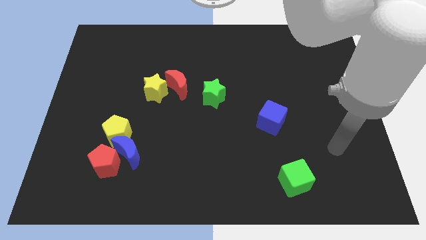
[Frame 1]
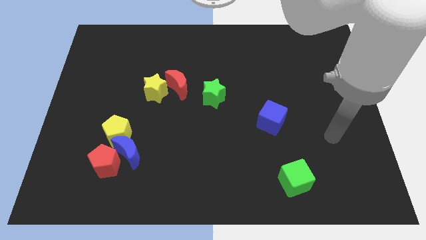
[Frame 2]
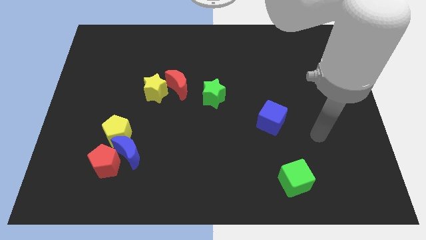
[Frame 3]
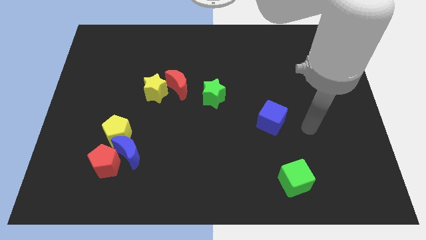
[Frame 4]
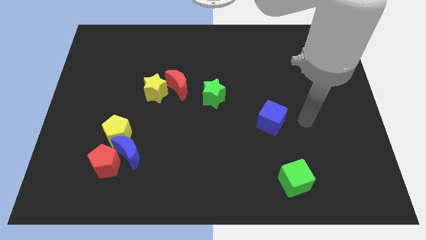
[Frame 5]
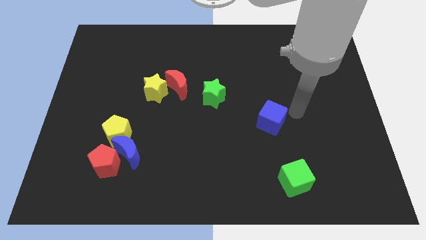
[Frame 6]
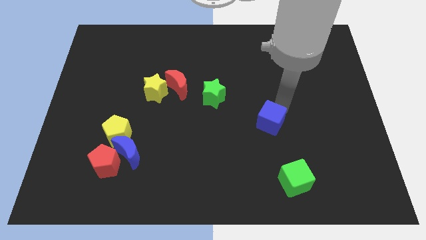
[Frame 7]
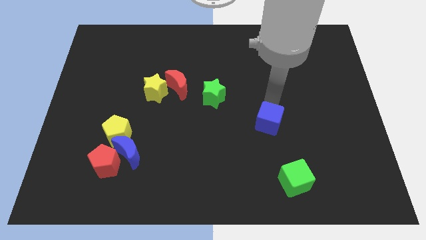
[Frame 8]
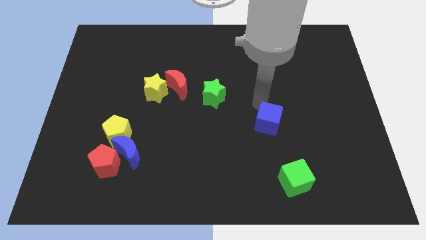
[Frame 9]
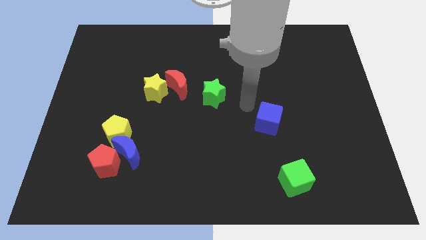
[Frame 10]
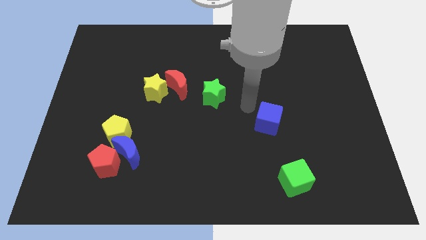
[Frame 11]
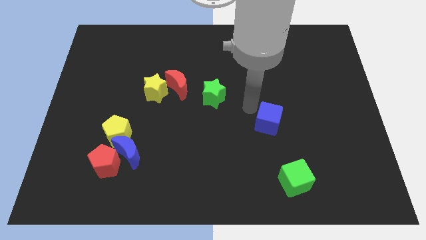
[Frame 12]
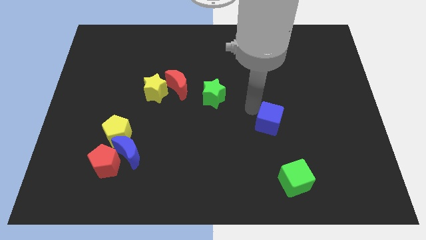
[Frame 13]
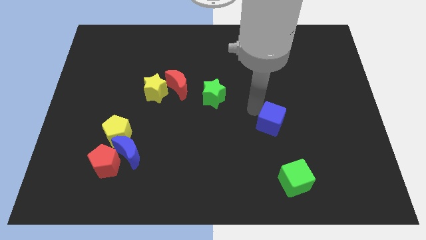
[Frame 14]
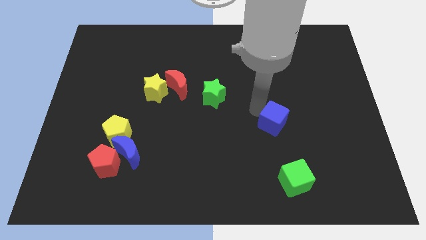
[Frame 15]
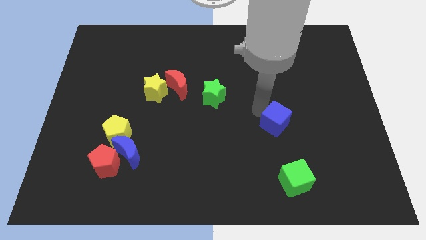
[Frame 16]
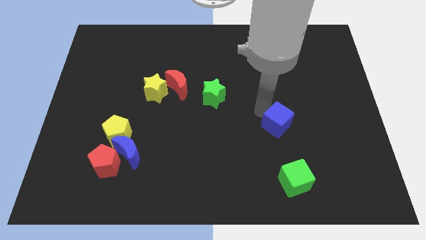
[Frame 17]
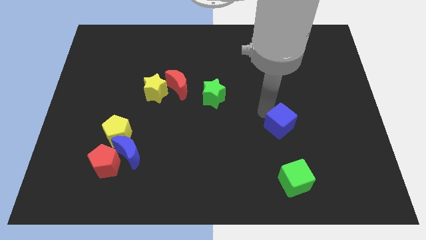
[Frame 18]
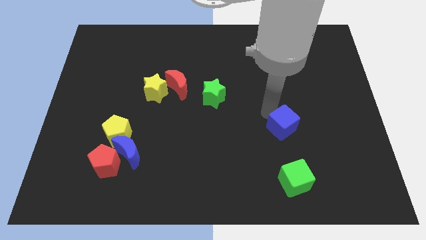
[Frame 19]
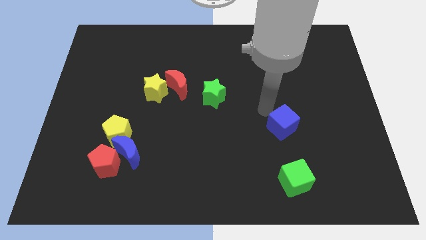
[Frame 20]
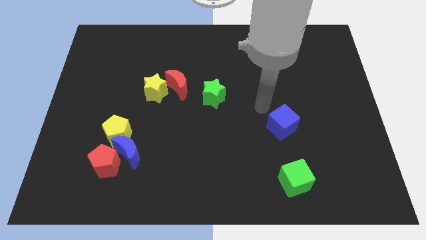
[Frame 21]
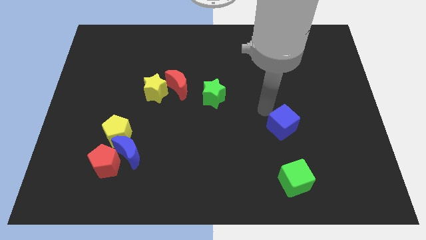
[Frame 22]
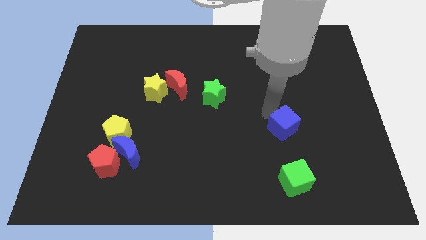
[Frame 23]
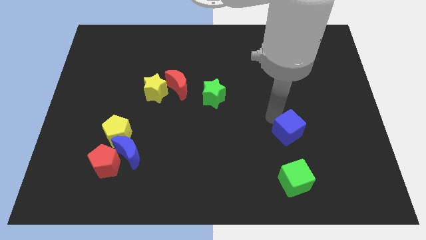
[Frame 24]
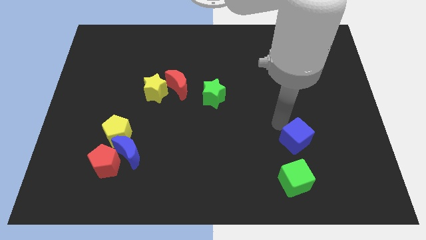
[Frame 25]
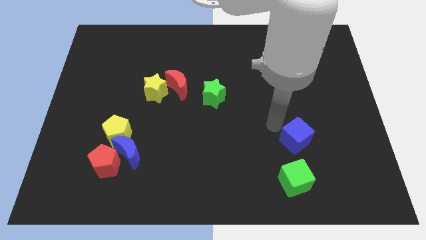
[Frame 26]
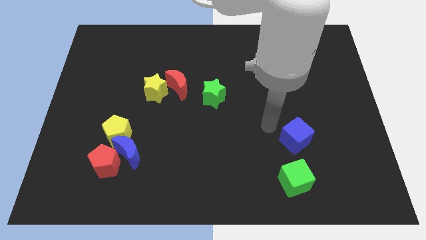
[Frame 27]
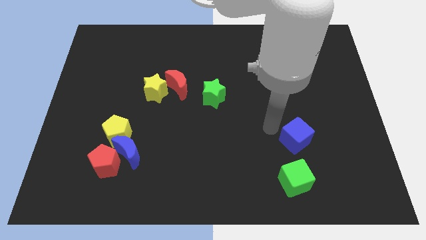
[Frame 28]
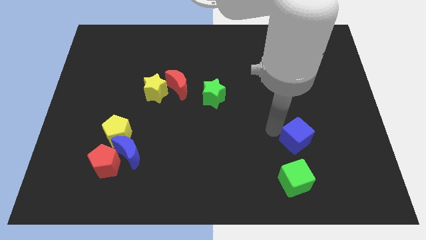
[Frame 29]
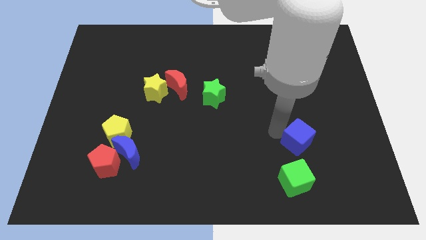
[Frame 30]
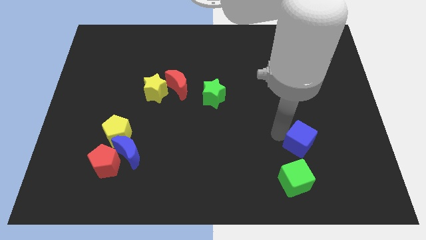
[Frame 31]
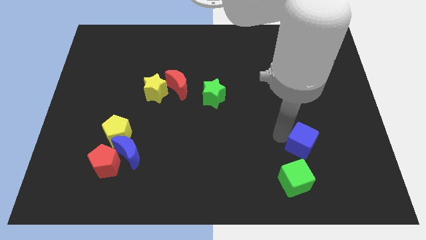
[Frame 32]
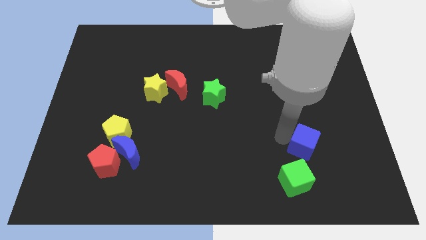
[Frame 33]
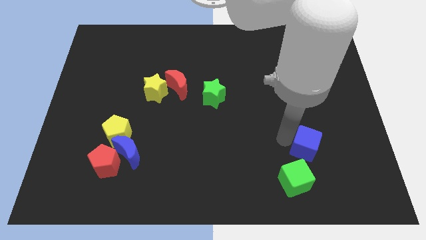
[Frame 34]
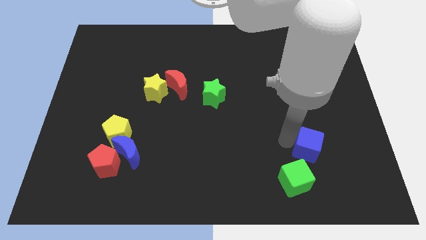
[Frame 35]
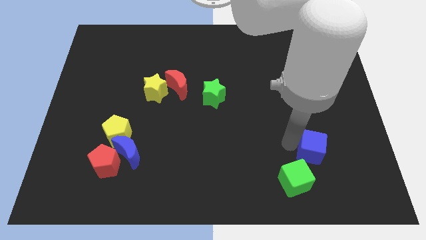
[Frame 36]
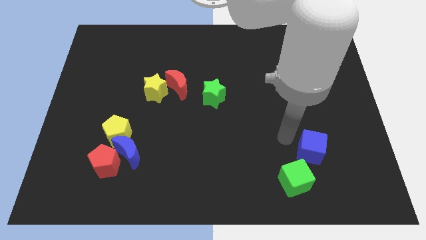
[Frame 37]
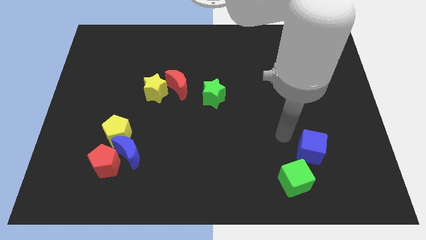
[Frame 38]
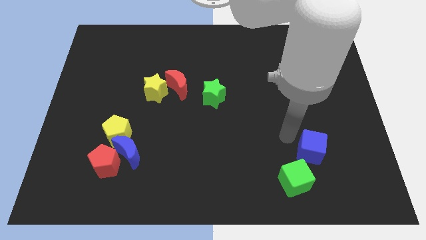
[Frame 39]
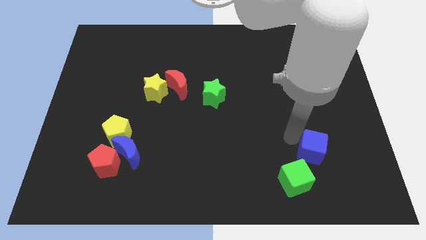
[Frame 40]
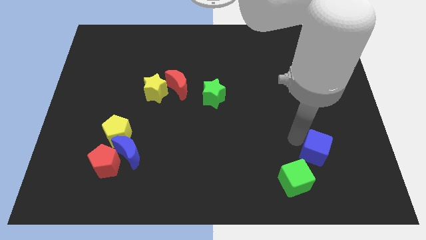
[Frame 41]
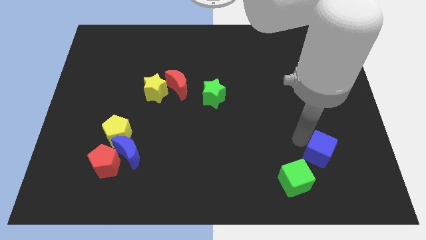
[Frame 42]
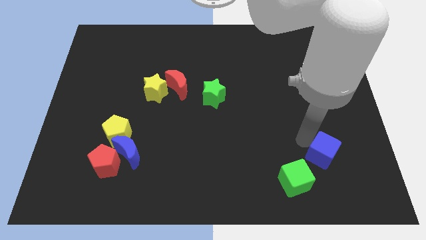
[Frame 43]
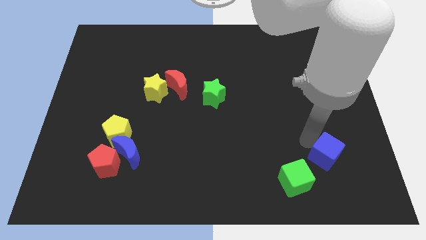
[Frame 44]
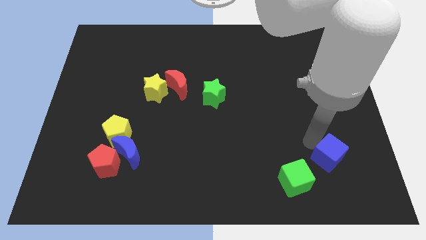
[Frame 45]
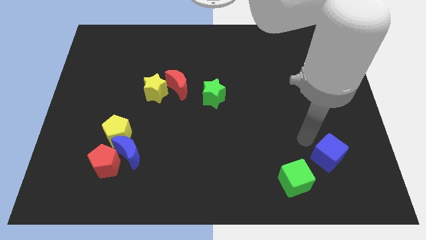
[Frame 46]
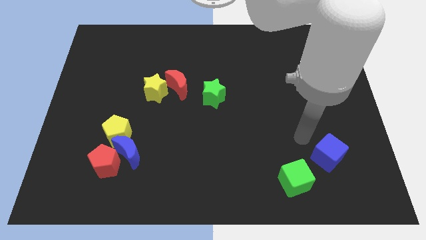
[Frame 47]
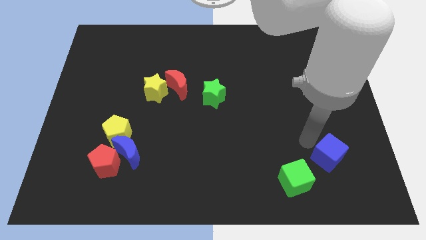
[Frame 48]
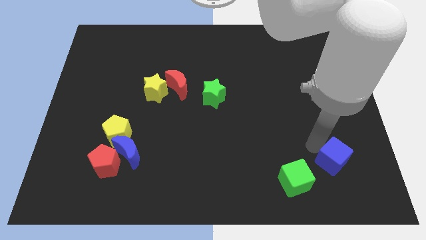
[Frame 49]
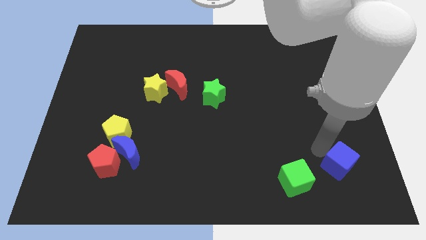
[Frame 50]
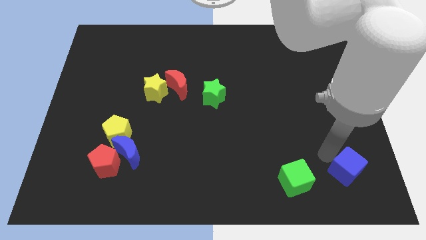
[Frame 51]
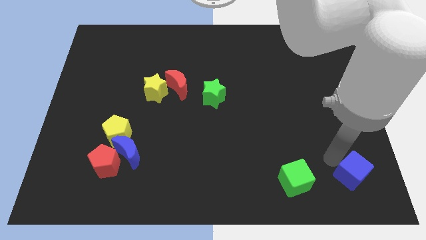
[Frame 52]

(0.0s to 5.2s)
put the blue cube to the bottom right of the board

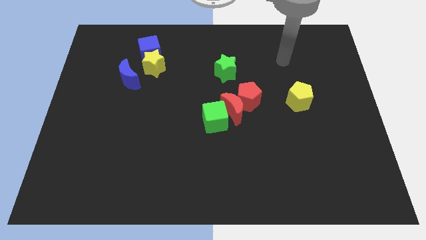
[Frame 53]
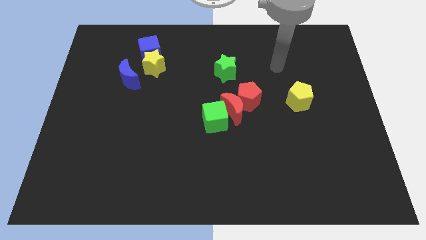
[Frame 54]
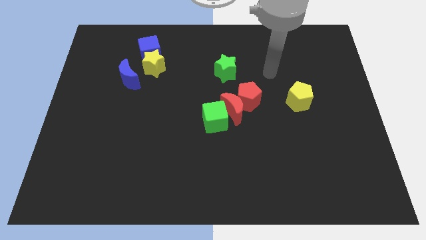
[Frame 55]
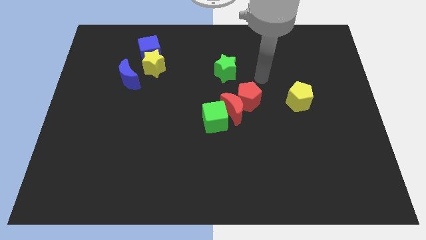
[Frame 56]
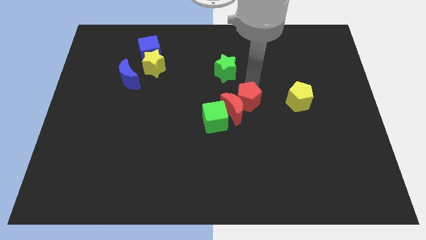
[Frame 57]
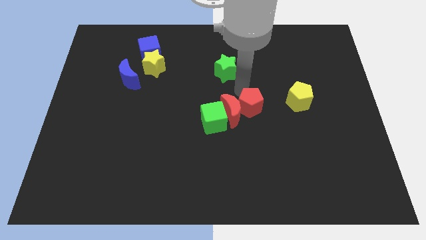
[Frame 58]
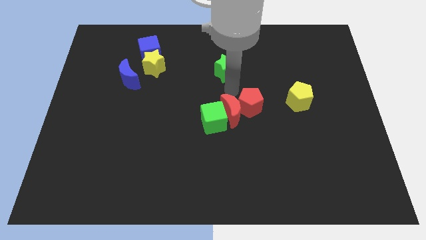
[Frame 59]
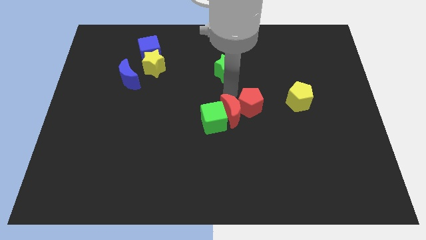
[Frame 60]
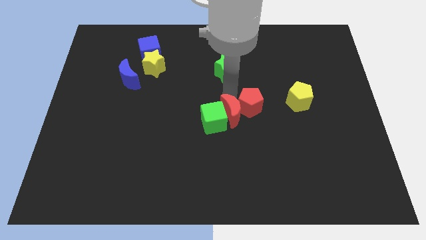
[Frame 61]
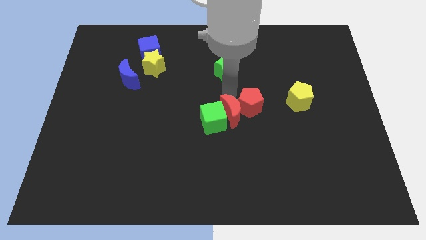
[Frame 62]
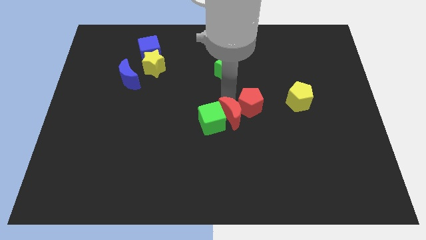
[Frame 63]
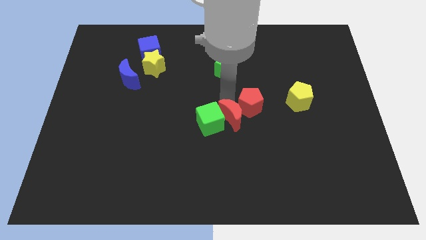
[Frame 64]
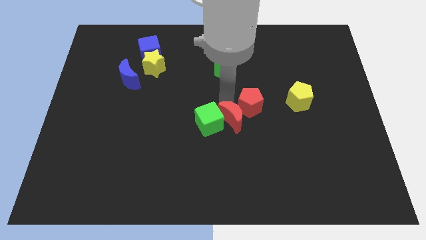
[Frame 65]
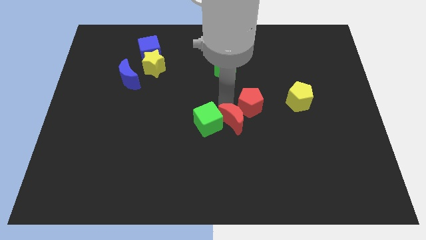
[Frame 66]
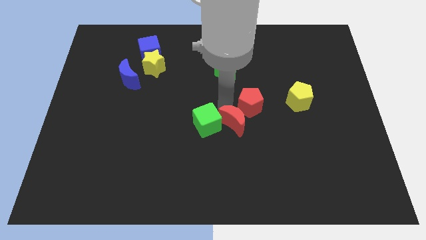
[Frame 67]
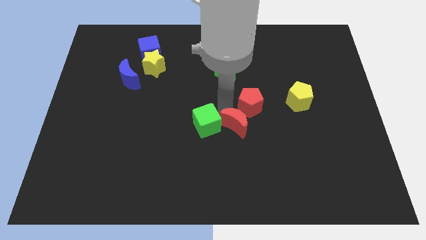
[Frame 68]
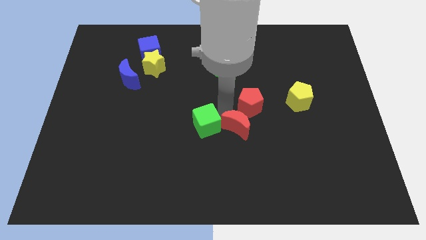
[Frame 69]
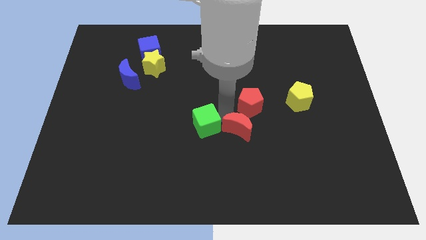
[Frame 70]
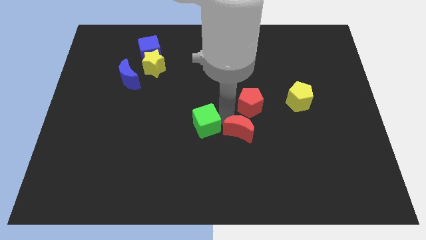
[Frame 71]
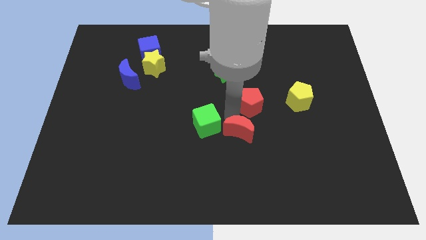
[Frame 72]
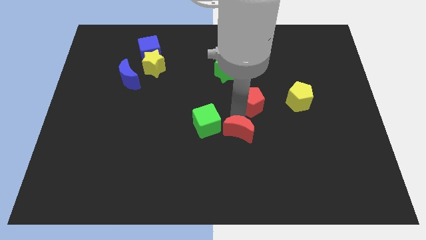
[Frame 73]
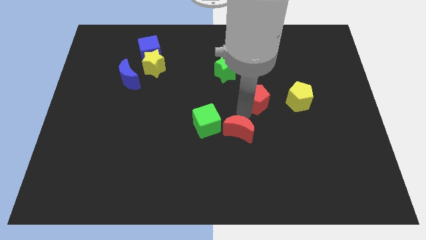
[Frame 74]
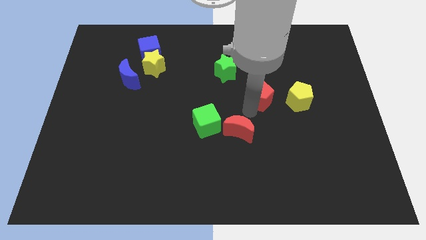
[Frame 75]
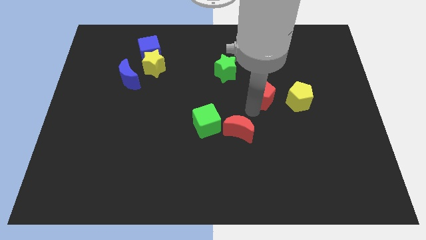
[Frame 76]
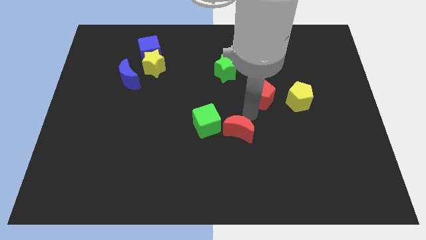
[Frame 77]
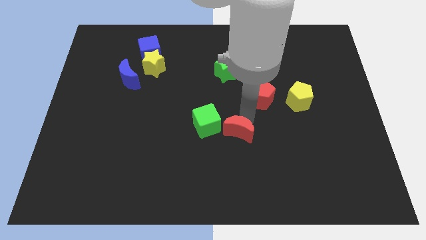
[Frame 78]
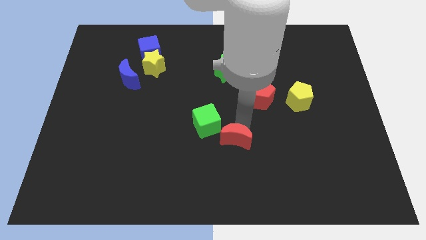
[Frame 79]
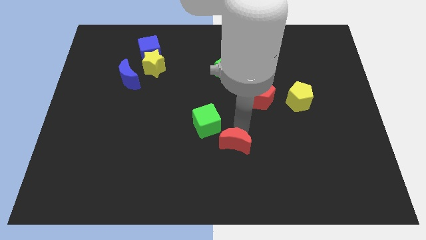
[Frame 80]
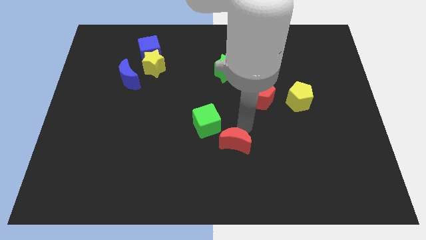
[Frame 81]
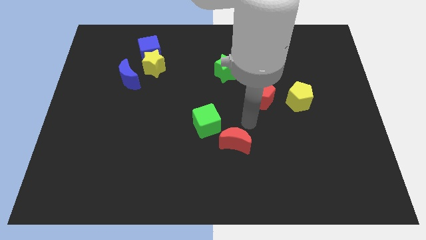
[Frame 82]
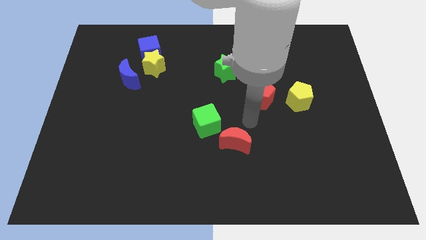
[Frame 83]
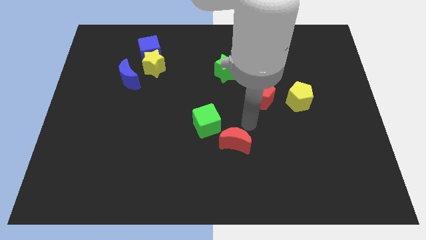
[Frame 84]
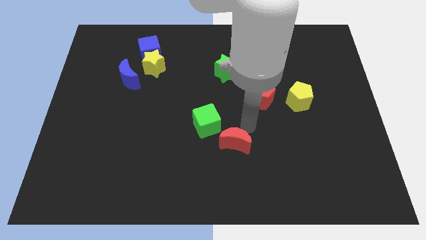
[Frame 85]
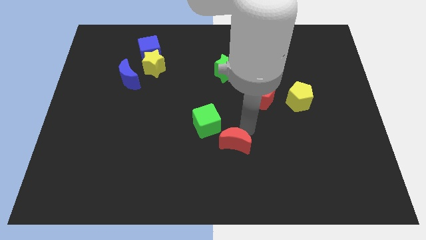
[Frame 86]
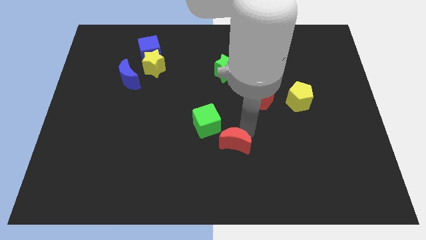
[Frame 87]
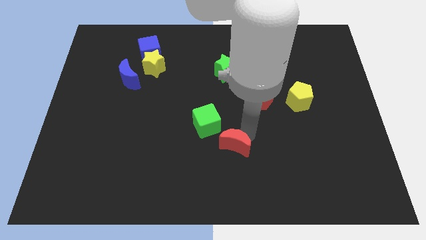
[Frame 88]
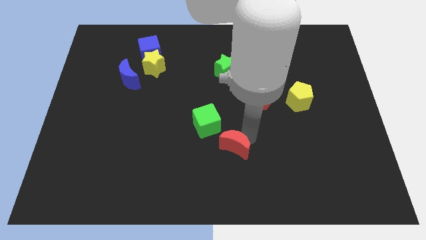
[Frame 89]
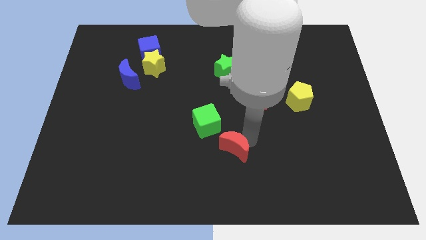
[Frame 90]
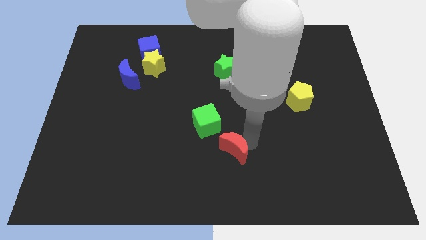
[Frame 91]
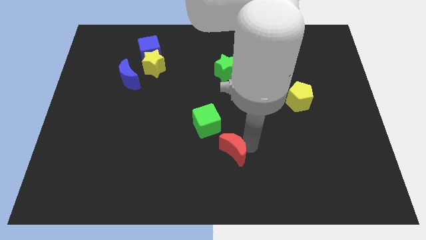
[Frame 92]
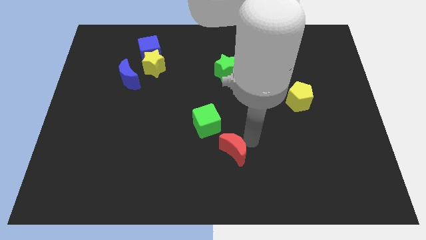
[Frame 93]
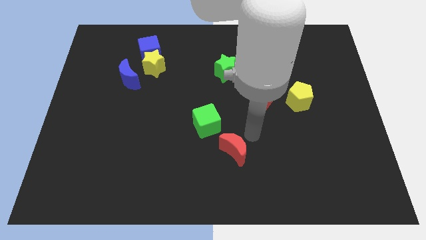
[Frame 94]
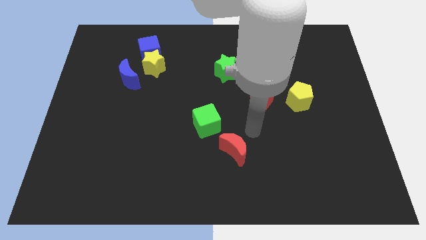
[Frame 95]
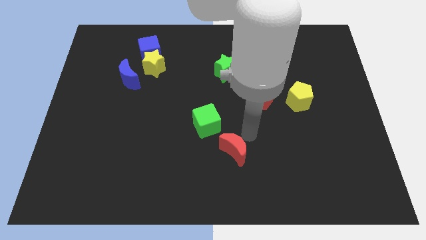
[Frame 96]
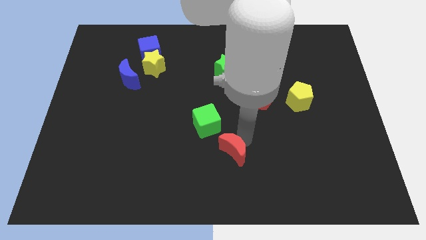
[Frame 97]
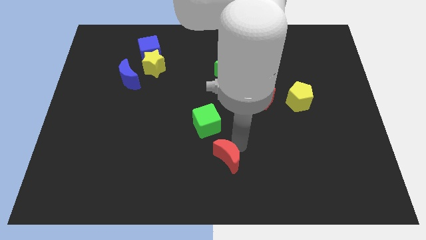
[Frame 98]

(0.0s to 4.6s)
slide the red moon to the bottom side
